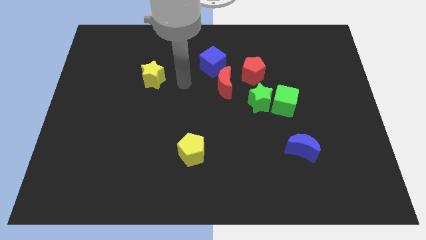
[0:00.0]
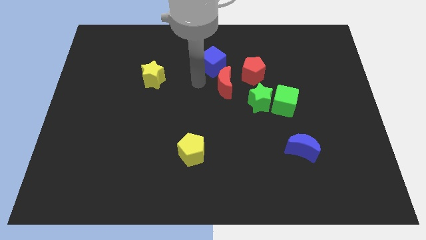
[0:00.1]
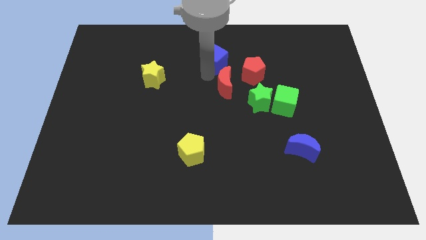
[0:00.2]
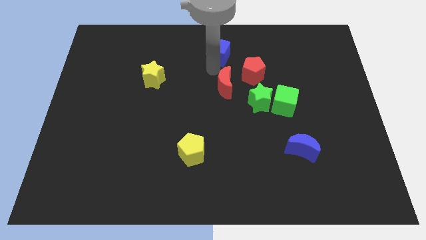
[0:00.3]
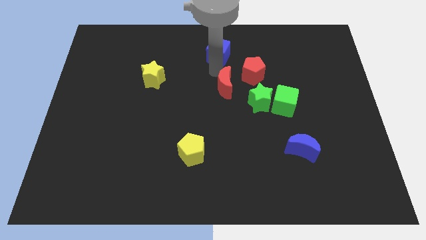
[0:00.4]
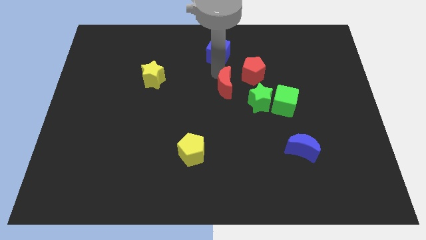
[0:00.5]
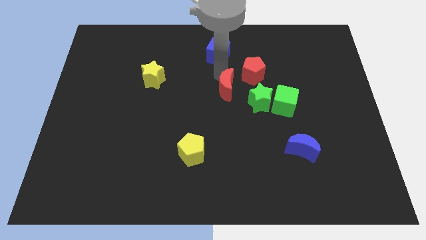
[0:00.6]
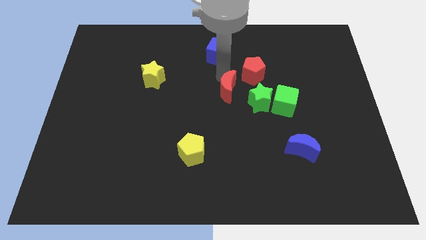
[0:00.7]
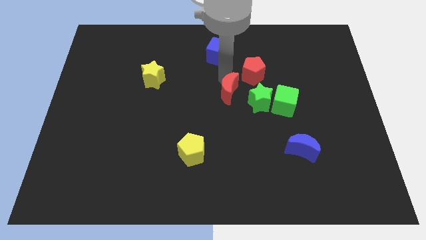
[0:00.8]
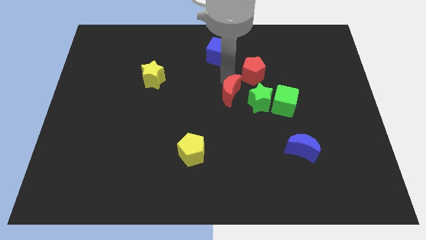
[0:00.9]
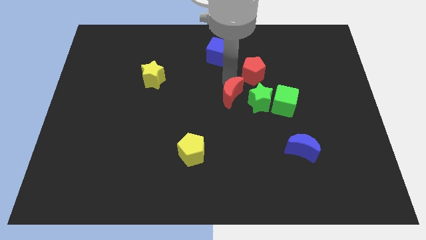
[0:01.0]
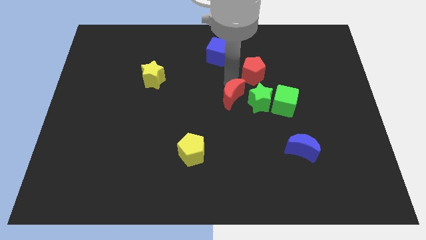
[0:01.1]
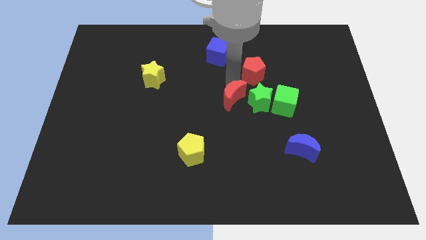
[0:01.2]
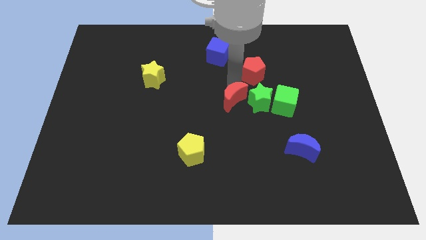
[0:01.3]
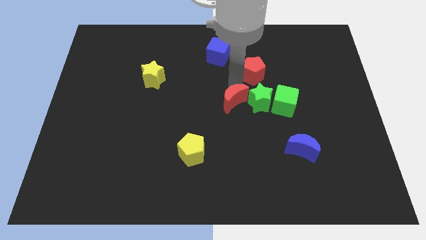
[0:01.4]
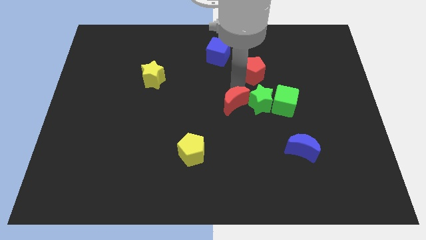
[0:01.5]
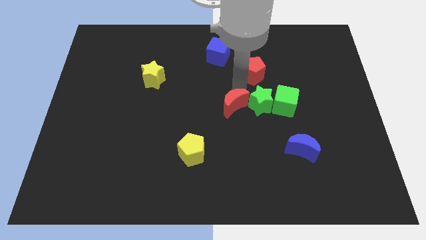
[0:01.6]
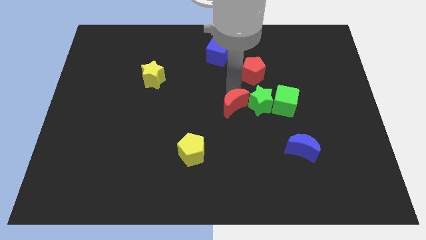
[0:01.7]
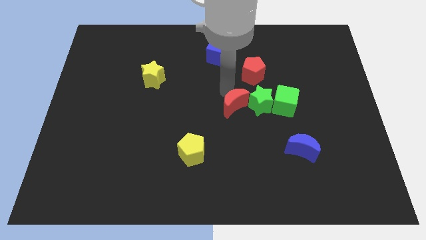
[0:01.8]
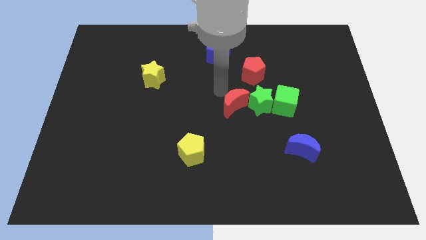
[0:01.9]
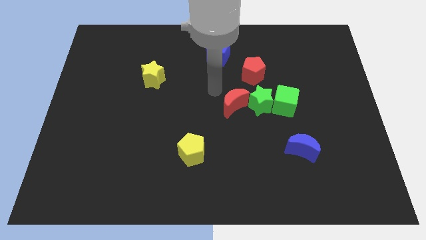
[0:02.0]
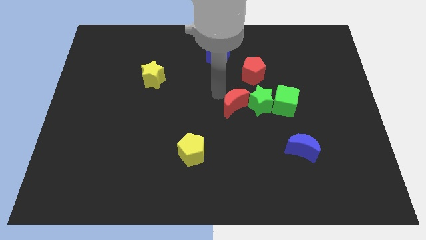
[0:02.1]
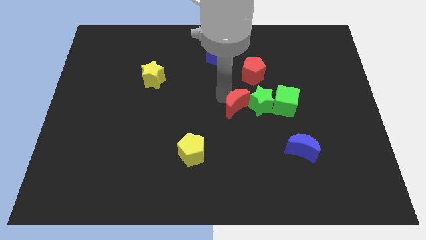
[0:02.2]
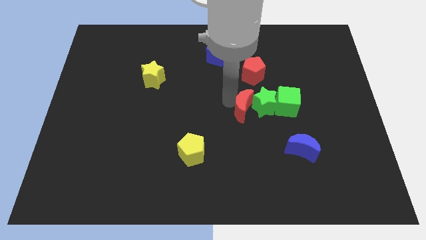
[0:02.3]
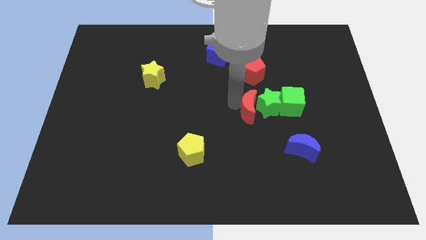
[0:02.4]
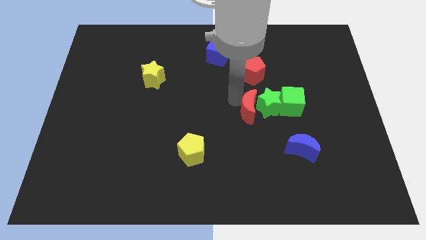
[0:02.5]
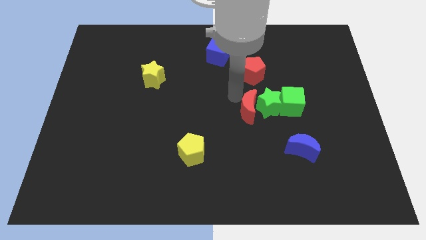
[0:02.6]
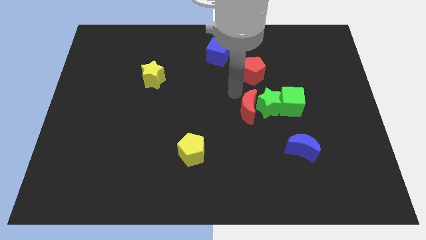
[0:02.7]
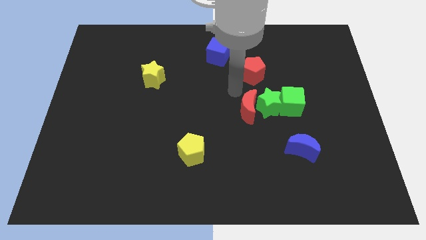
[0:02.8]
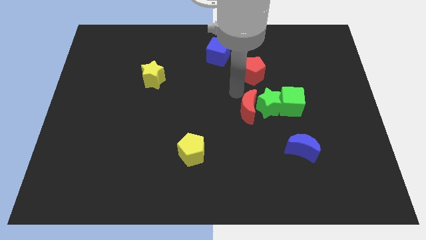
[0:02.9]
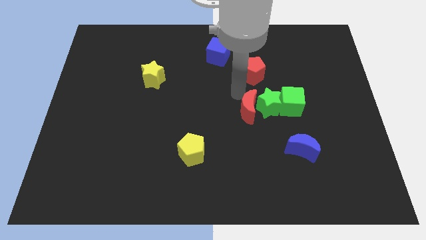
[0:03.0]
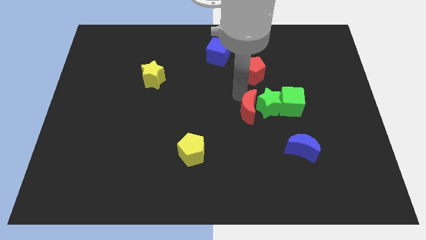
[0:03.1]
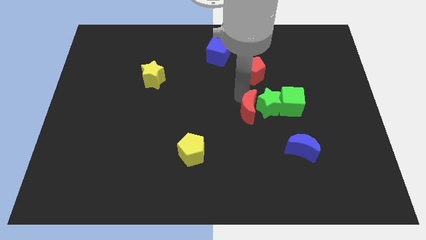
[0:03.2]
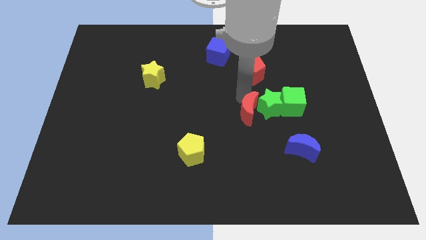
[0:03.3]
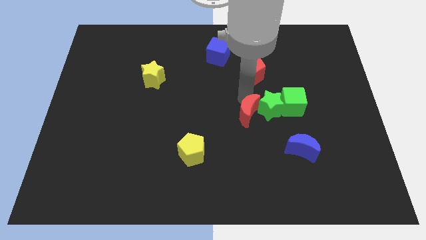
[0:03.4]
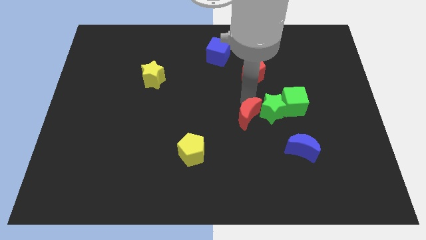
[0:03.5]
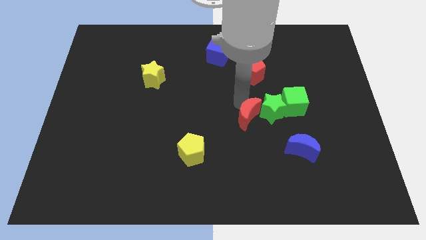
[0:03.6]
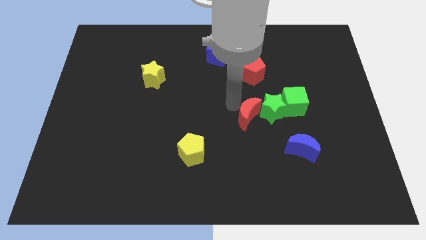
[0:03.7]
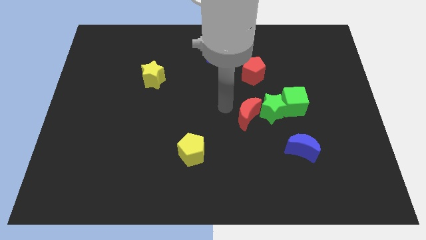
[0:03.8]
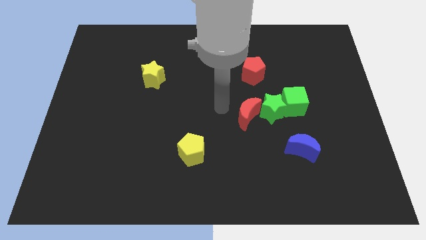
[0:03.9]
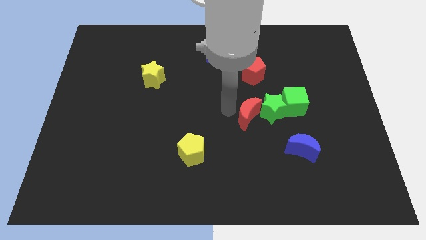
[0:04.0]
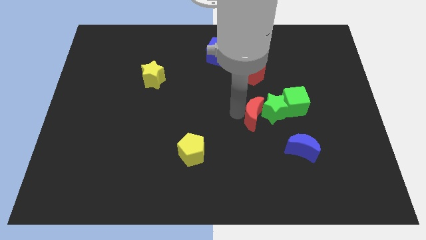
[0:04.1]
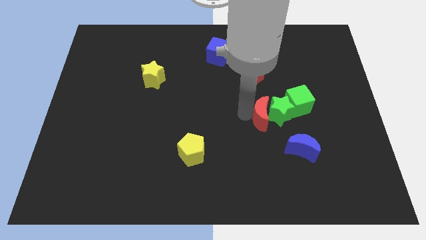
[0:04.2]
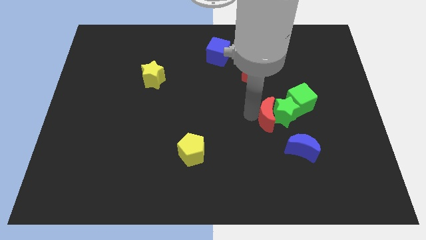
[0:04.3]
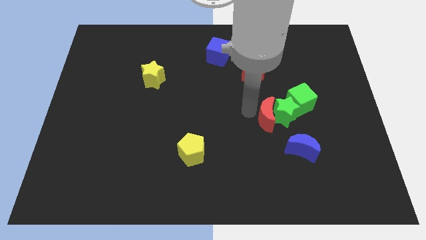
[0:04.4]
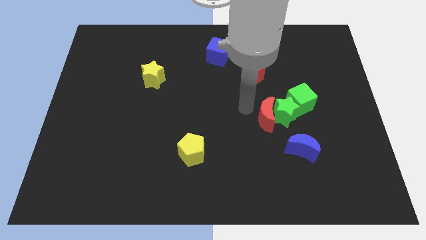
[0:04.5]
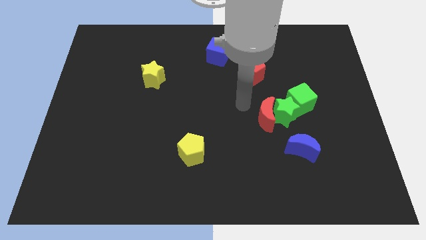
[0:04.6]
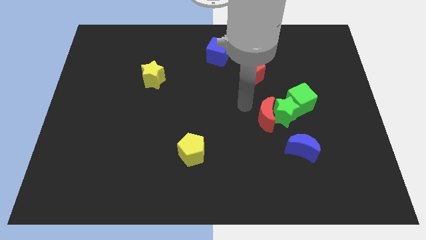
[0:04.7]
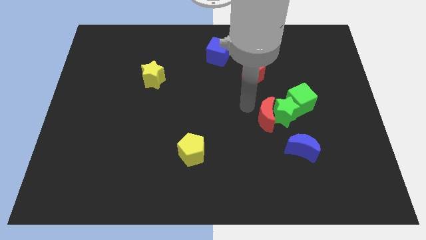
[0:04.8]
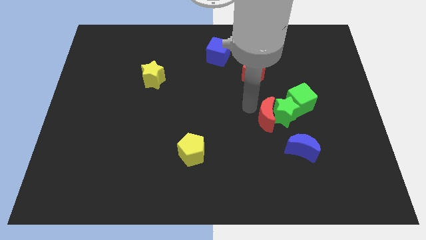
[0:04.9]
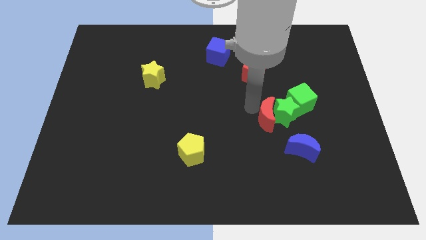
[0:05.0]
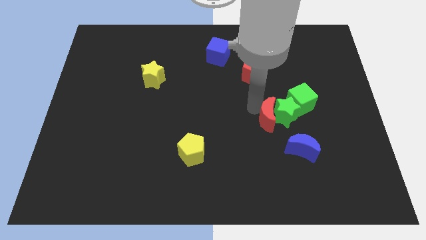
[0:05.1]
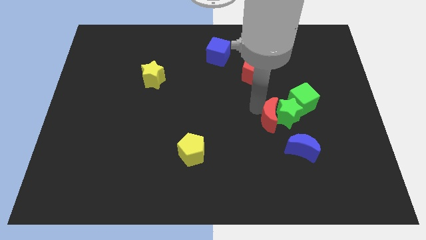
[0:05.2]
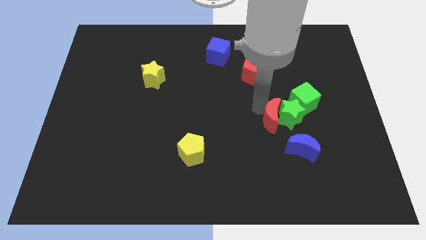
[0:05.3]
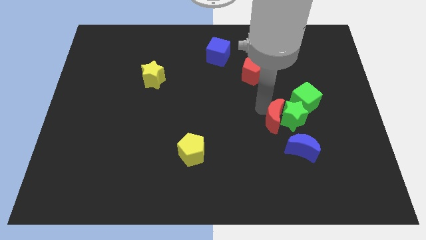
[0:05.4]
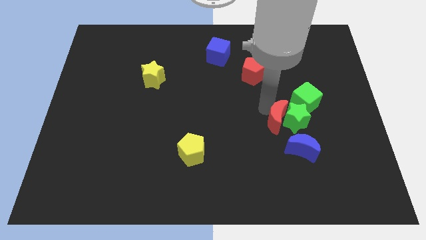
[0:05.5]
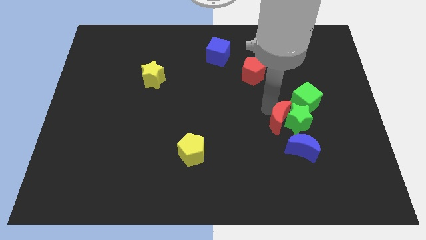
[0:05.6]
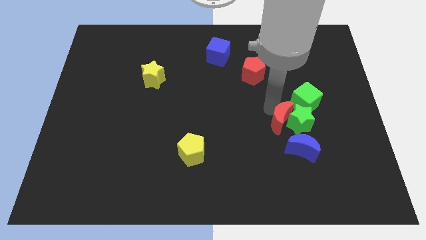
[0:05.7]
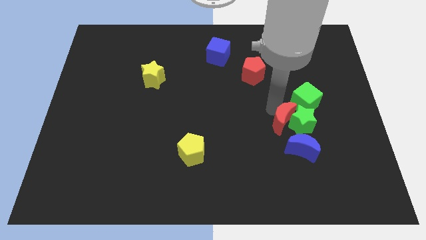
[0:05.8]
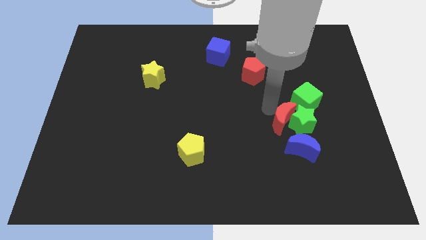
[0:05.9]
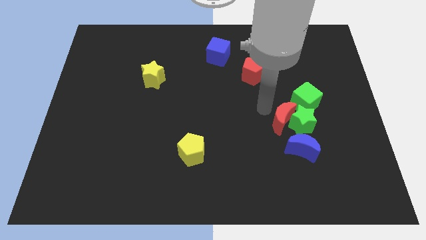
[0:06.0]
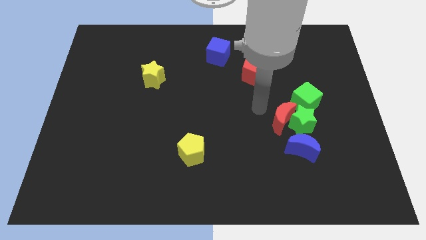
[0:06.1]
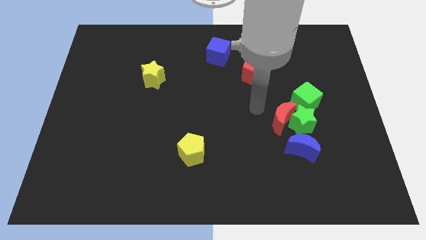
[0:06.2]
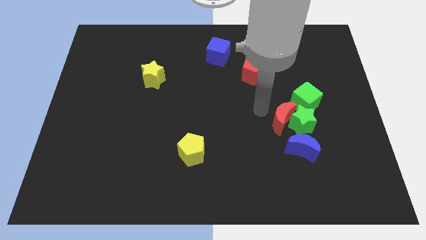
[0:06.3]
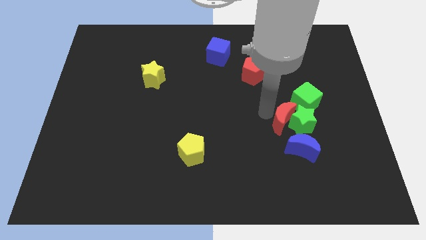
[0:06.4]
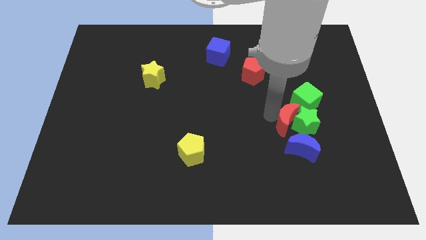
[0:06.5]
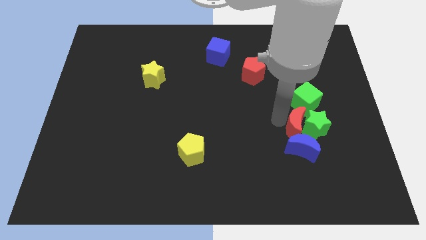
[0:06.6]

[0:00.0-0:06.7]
slide the red moon to the top right of the blue moon
